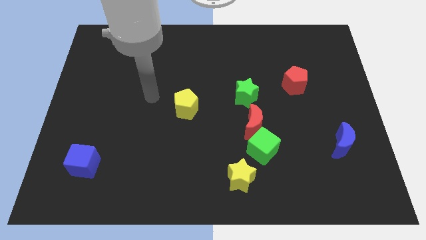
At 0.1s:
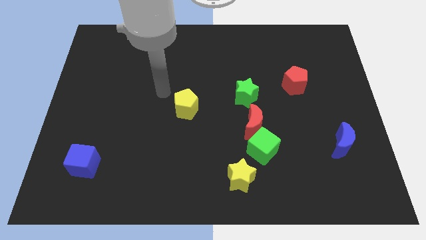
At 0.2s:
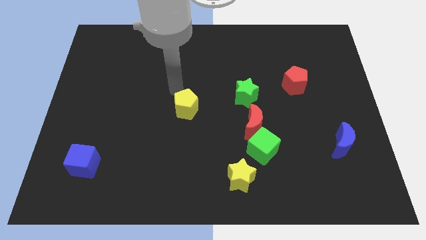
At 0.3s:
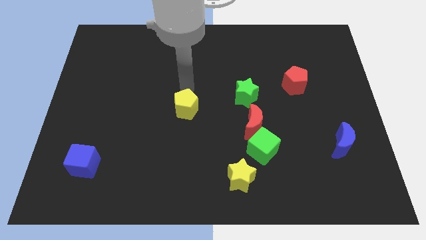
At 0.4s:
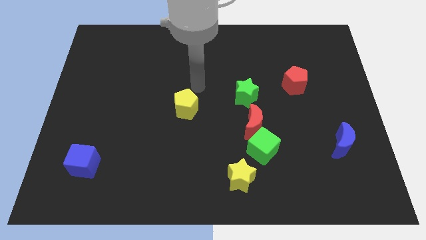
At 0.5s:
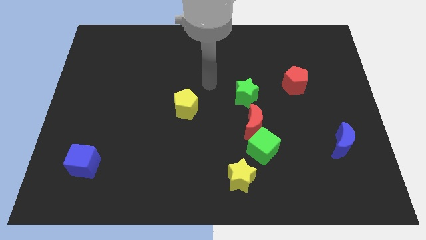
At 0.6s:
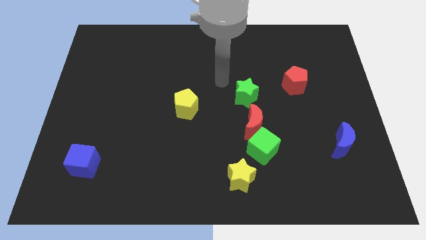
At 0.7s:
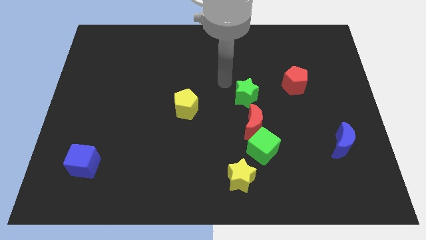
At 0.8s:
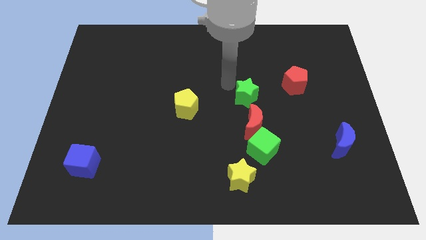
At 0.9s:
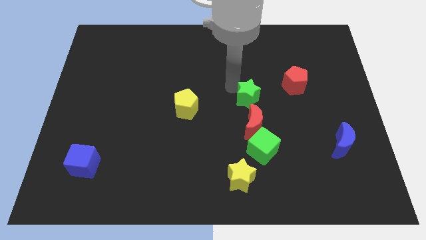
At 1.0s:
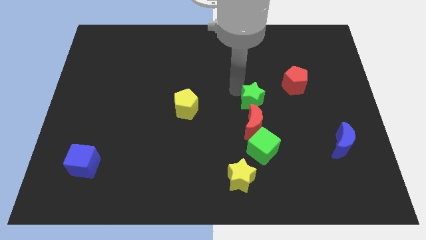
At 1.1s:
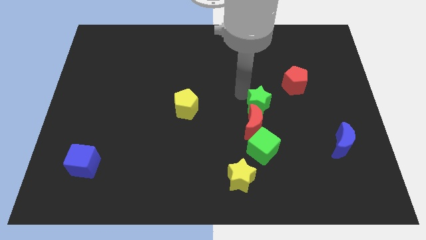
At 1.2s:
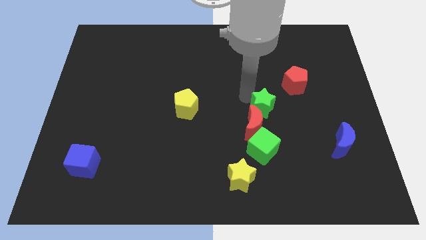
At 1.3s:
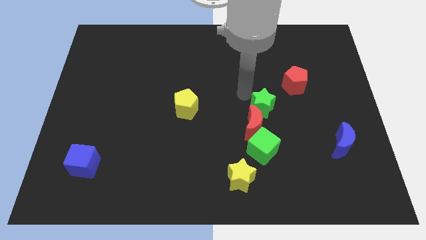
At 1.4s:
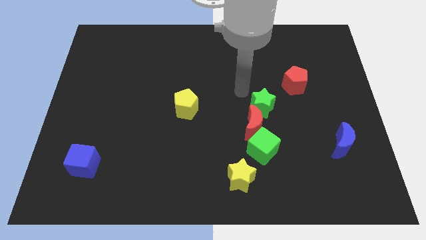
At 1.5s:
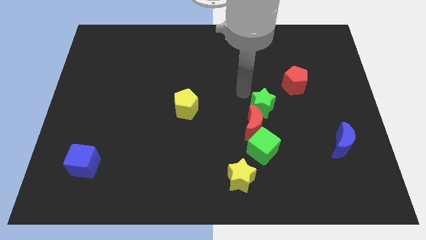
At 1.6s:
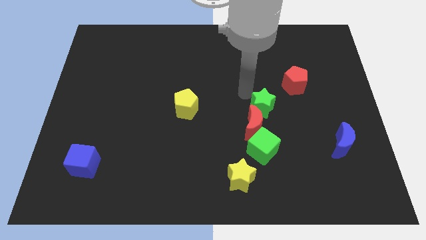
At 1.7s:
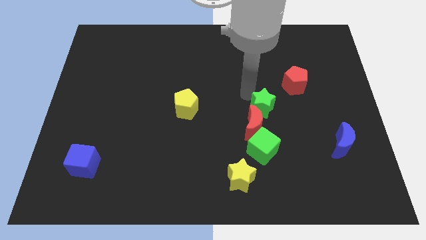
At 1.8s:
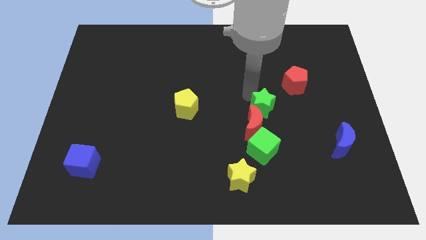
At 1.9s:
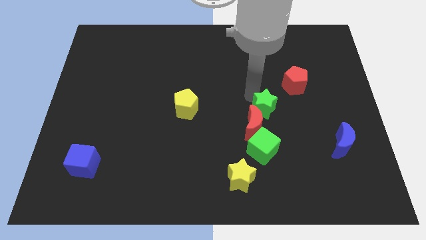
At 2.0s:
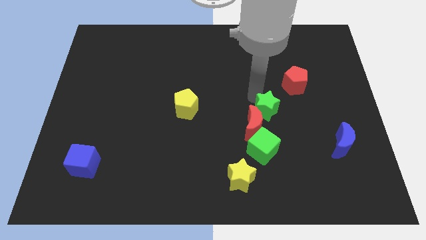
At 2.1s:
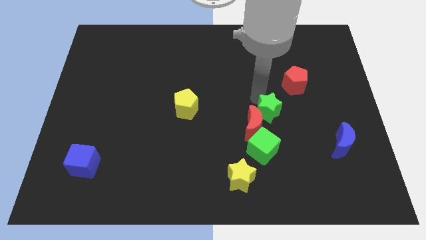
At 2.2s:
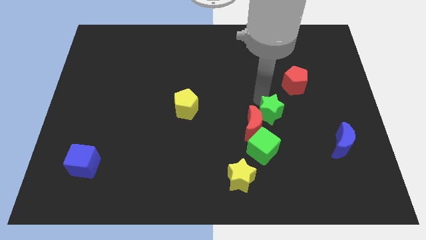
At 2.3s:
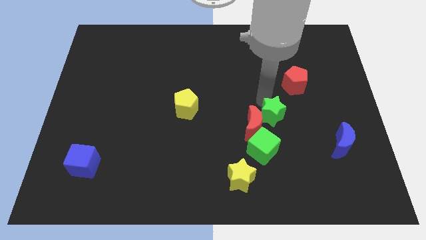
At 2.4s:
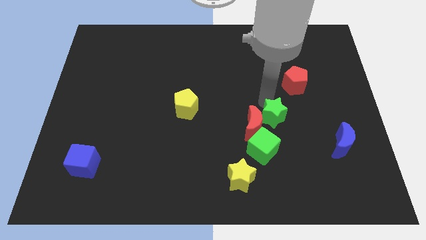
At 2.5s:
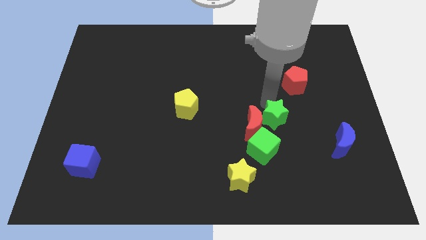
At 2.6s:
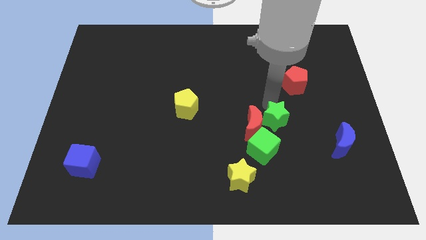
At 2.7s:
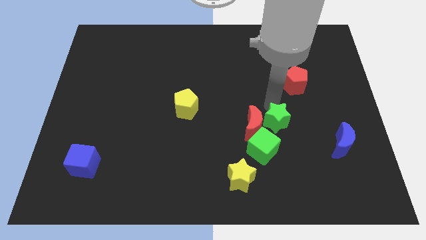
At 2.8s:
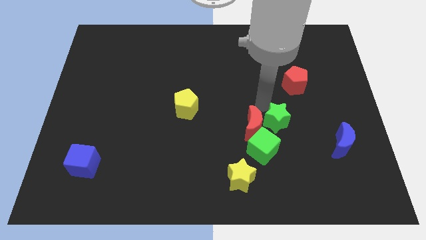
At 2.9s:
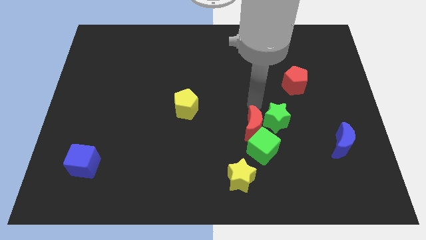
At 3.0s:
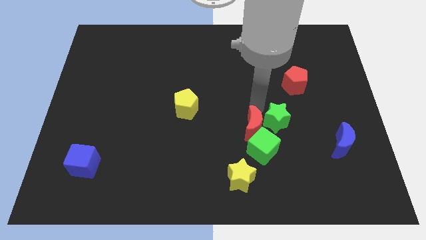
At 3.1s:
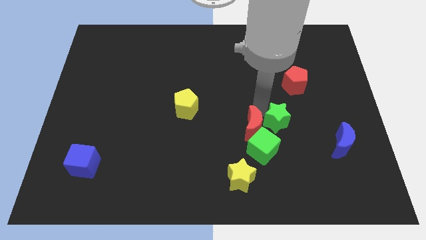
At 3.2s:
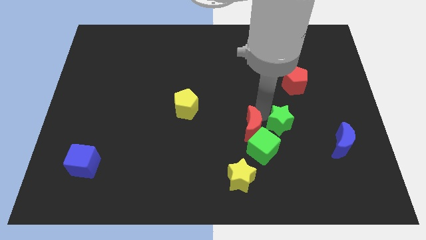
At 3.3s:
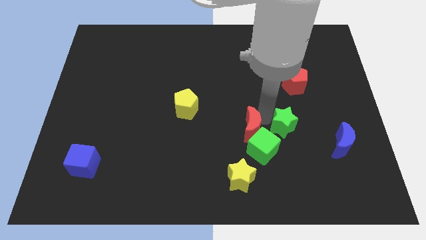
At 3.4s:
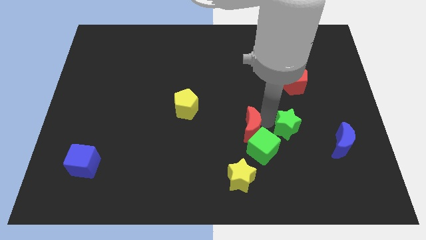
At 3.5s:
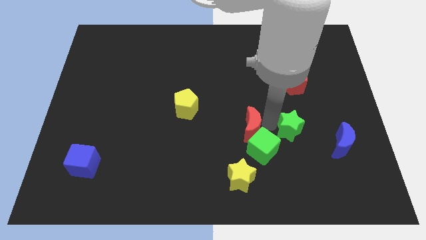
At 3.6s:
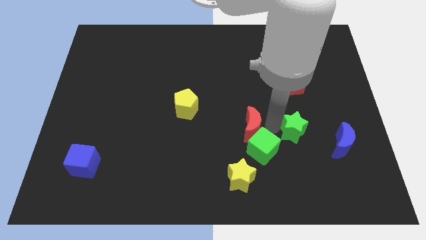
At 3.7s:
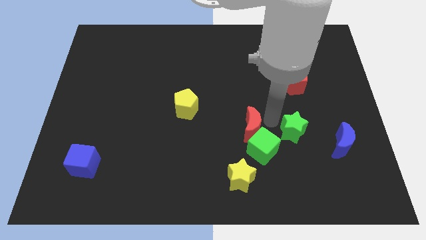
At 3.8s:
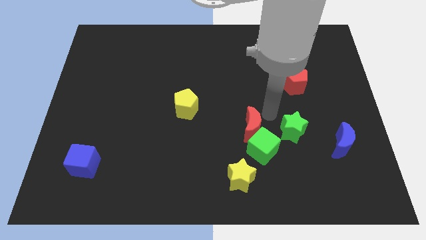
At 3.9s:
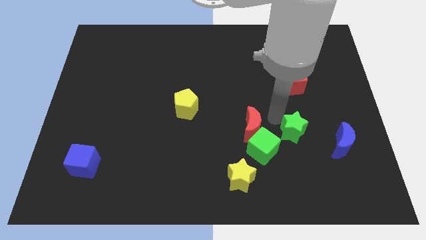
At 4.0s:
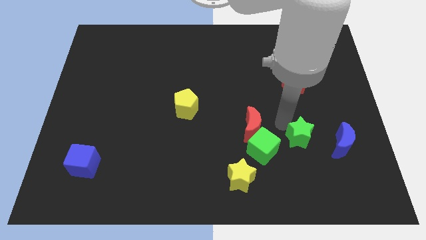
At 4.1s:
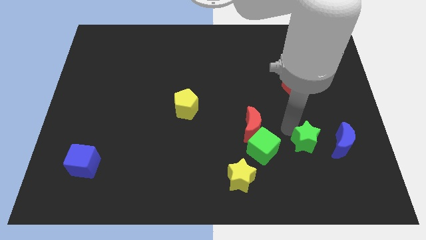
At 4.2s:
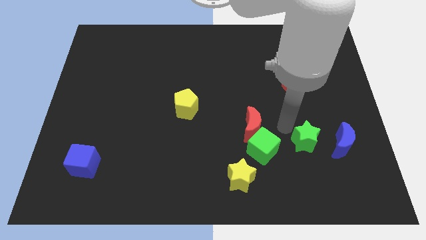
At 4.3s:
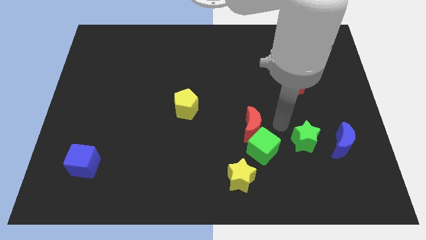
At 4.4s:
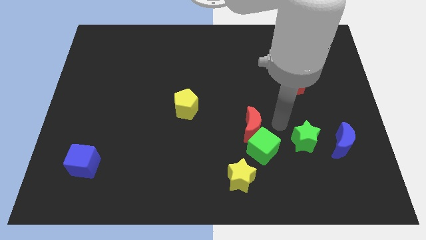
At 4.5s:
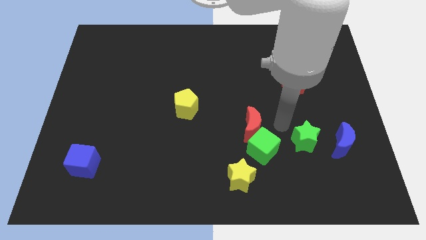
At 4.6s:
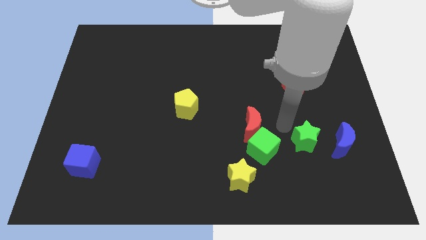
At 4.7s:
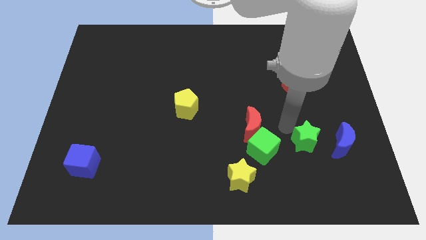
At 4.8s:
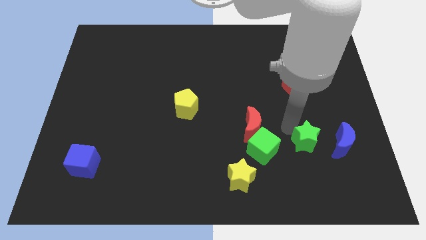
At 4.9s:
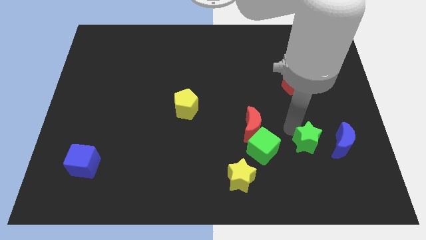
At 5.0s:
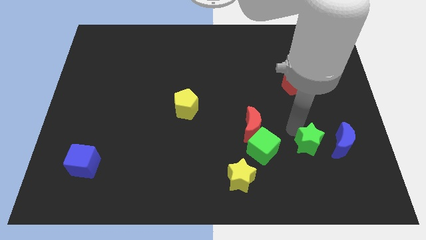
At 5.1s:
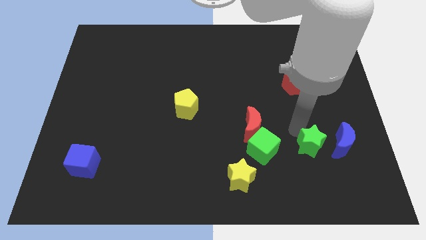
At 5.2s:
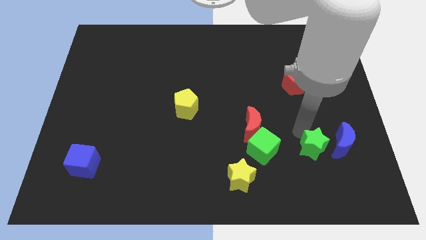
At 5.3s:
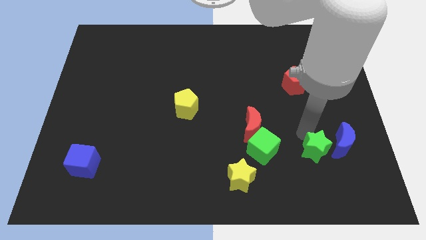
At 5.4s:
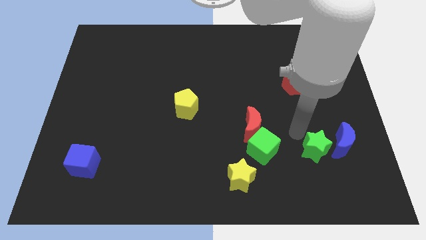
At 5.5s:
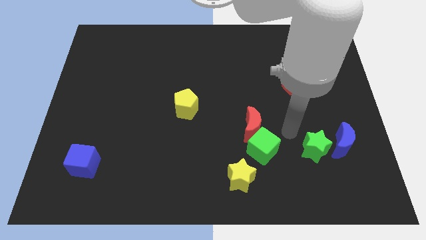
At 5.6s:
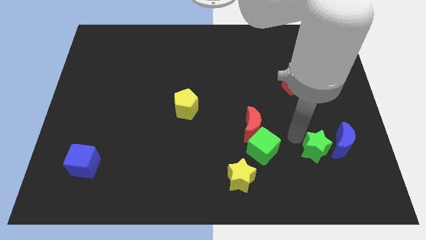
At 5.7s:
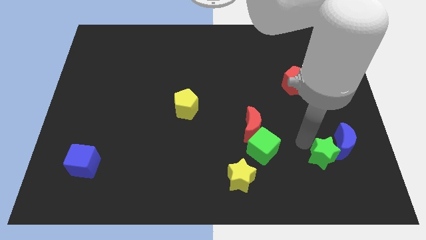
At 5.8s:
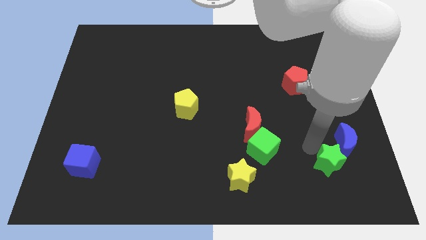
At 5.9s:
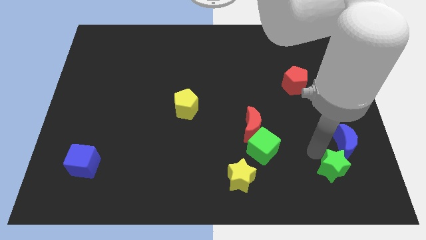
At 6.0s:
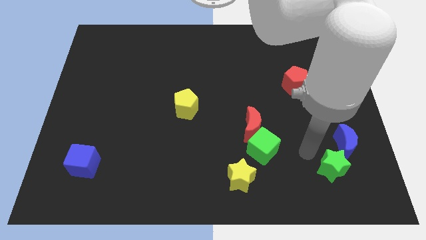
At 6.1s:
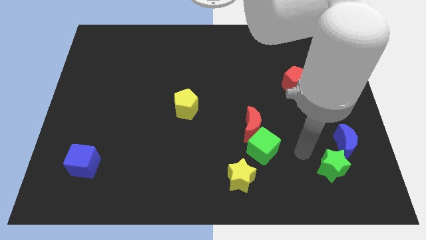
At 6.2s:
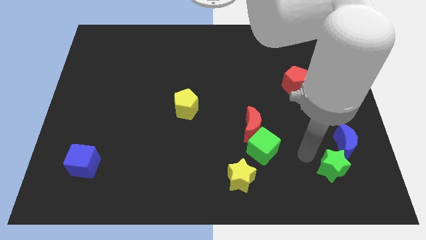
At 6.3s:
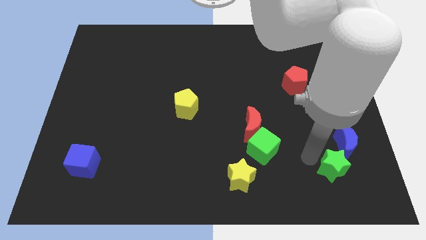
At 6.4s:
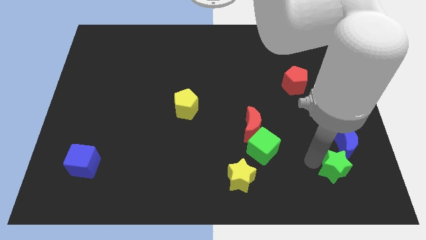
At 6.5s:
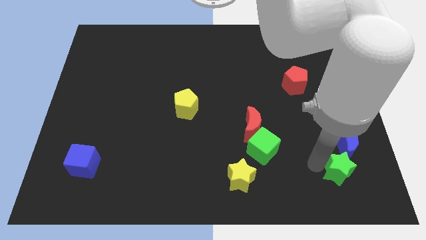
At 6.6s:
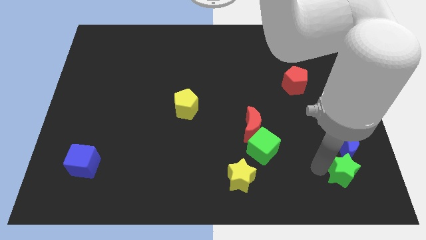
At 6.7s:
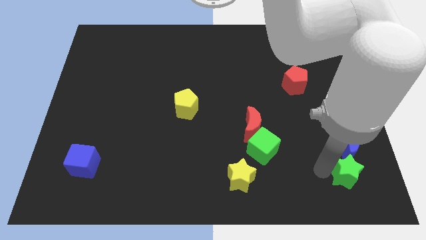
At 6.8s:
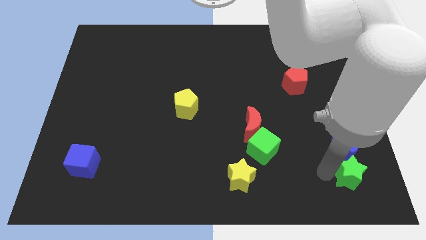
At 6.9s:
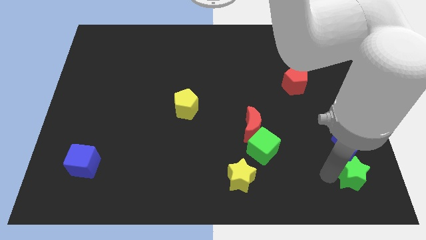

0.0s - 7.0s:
push the green star to the bottom right corner

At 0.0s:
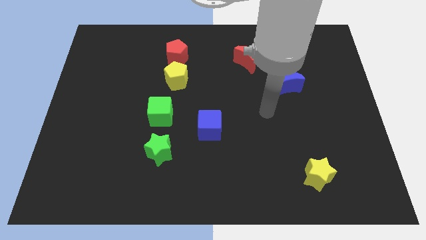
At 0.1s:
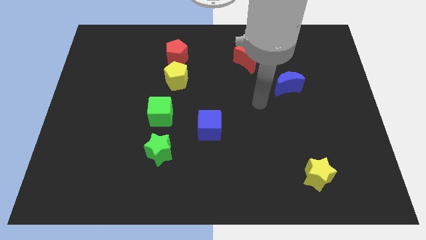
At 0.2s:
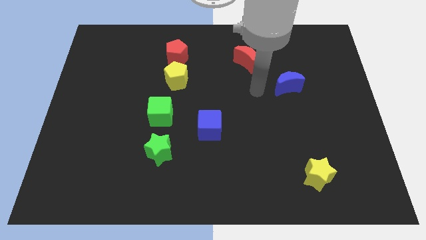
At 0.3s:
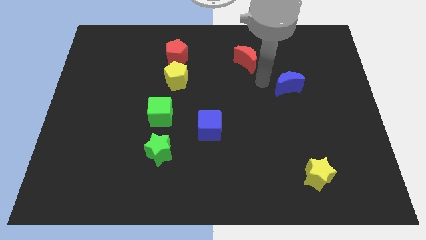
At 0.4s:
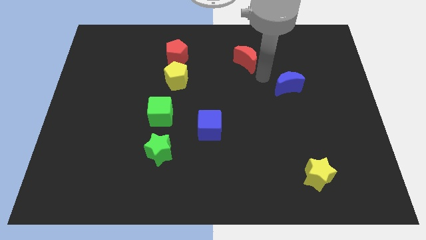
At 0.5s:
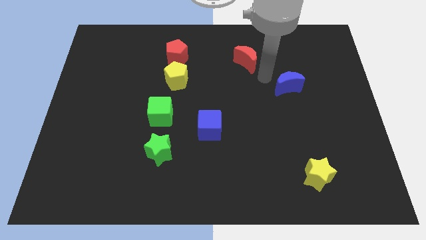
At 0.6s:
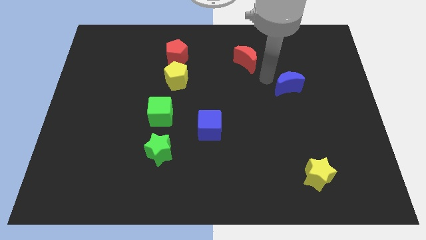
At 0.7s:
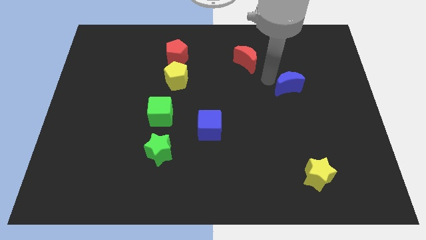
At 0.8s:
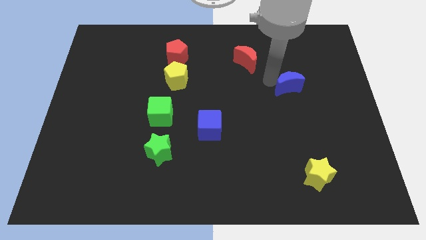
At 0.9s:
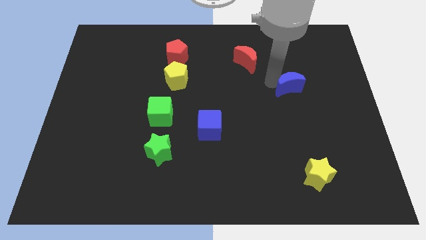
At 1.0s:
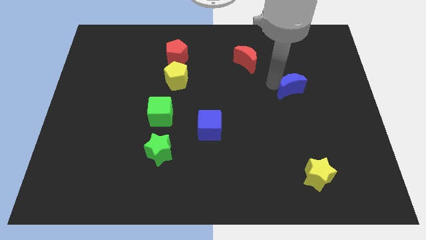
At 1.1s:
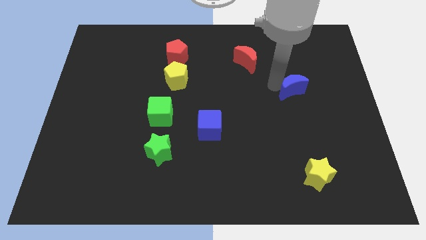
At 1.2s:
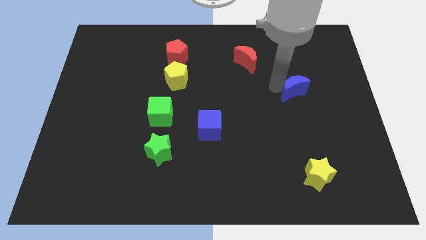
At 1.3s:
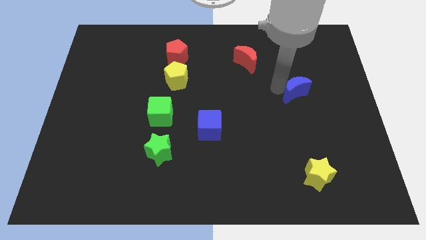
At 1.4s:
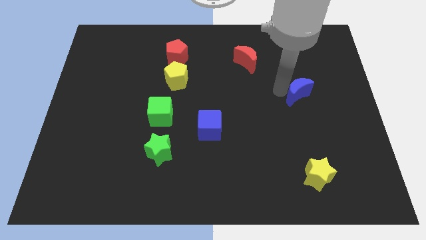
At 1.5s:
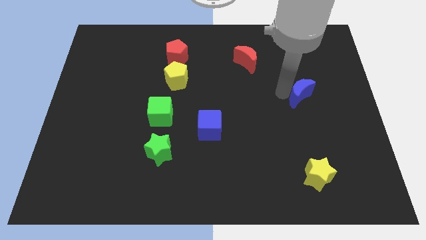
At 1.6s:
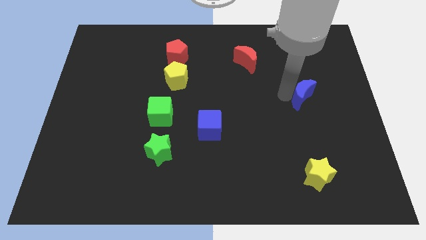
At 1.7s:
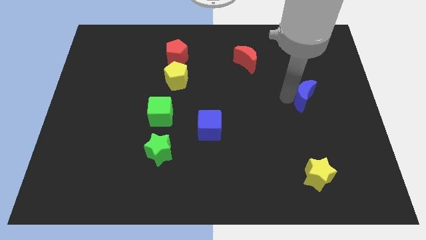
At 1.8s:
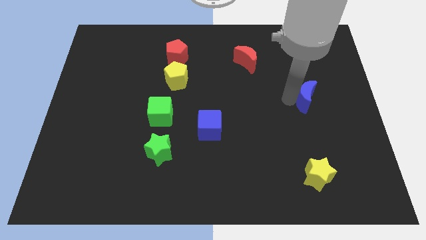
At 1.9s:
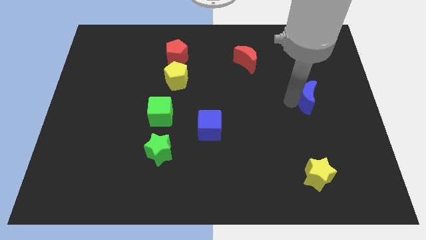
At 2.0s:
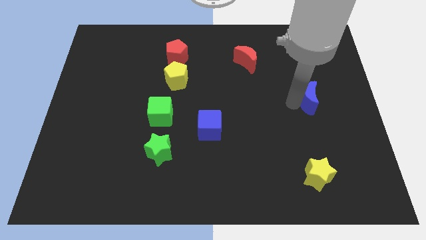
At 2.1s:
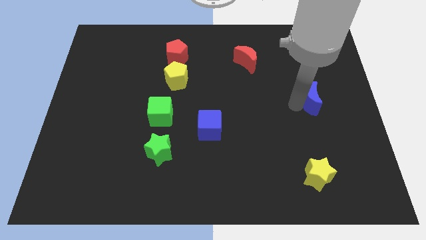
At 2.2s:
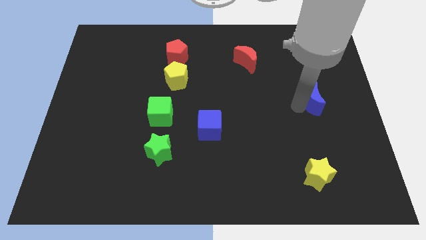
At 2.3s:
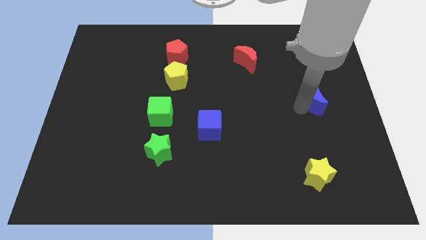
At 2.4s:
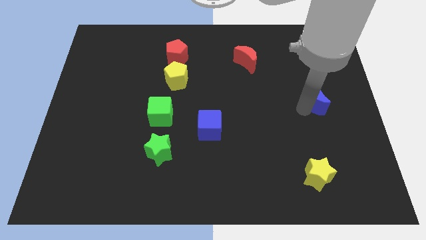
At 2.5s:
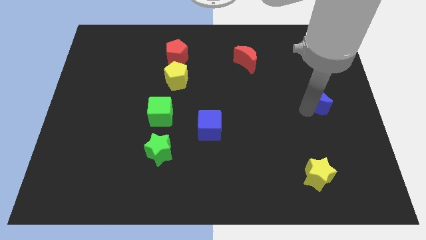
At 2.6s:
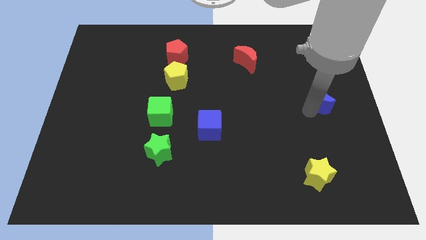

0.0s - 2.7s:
push the blue moon to the center right
